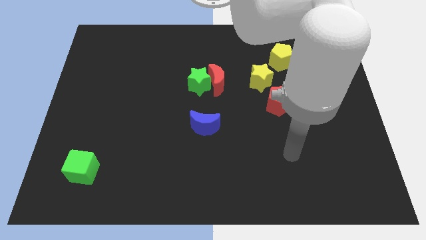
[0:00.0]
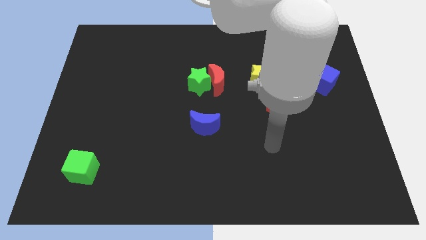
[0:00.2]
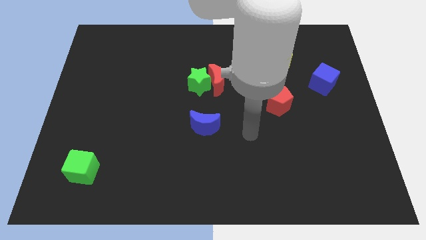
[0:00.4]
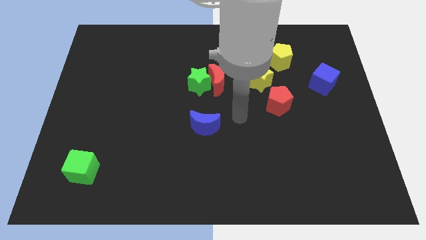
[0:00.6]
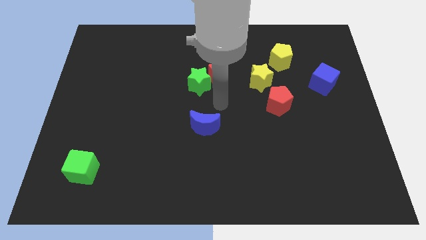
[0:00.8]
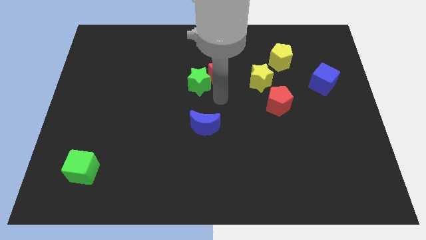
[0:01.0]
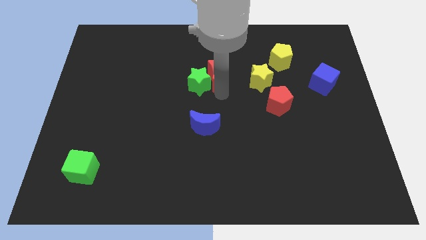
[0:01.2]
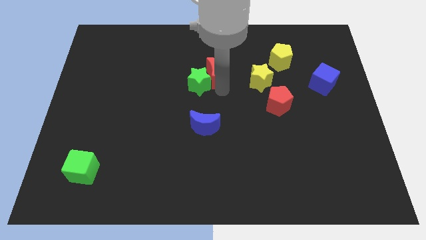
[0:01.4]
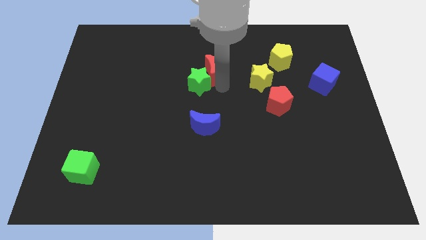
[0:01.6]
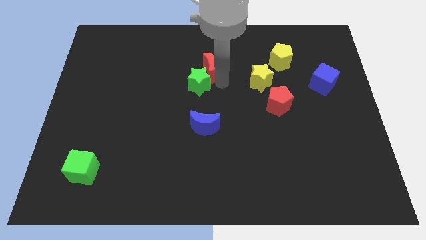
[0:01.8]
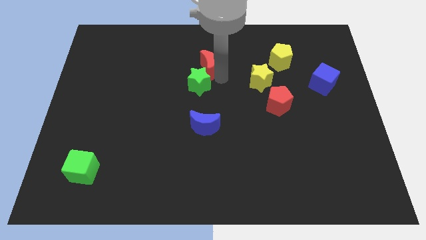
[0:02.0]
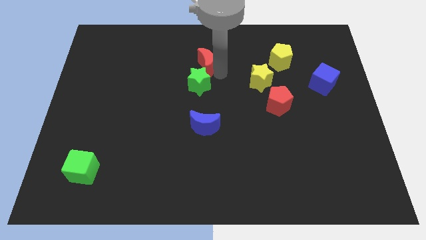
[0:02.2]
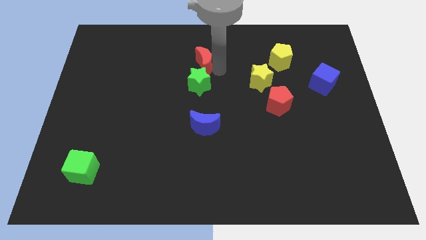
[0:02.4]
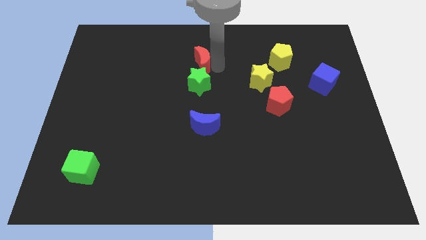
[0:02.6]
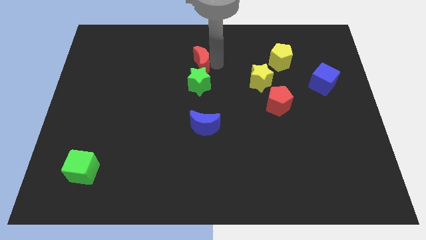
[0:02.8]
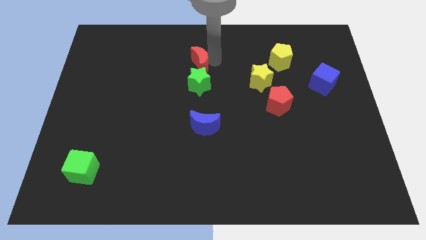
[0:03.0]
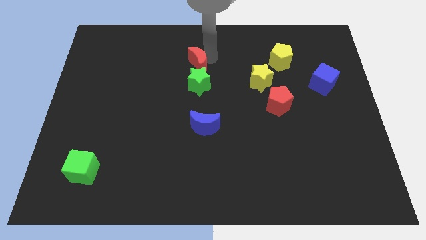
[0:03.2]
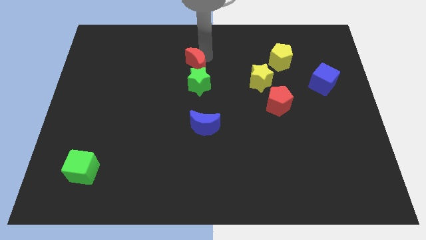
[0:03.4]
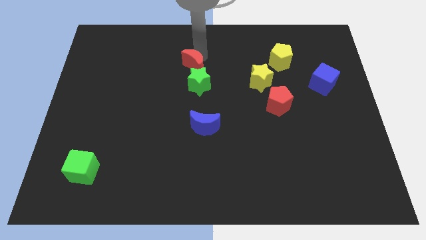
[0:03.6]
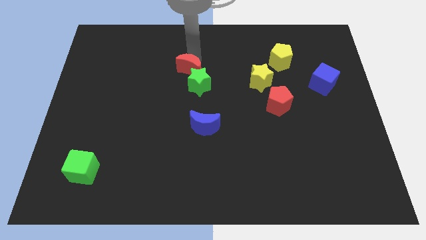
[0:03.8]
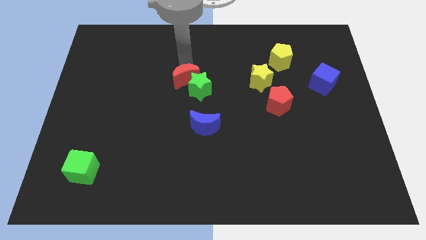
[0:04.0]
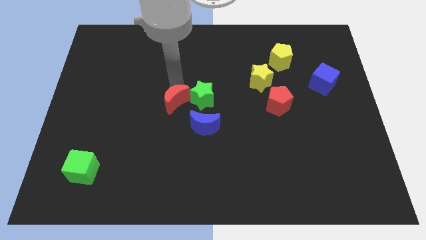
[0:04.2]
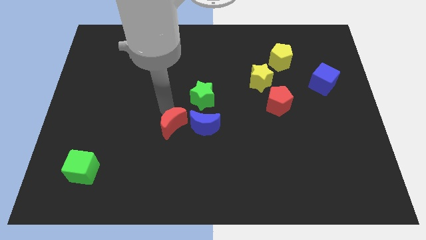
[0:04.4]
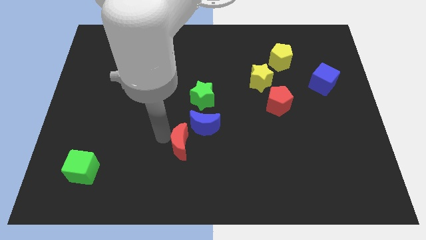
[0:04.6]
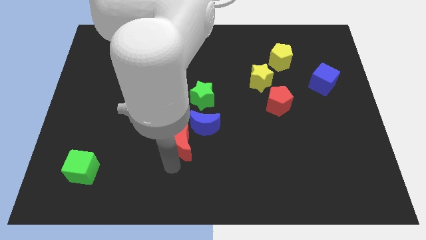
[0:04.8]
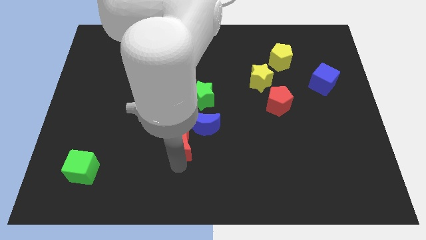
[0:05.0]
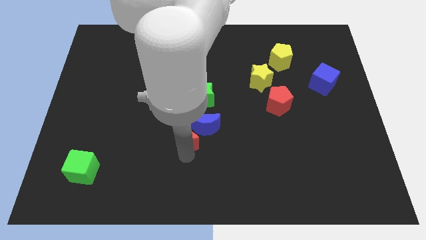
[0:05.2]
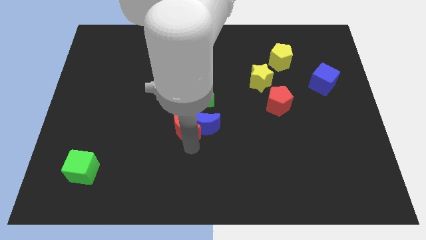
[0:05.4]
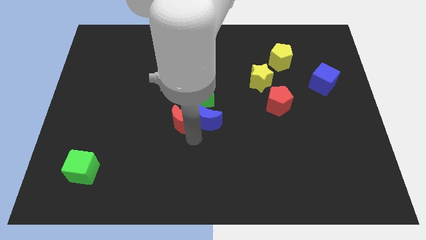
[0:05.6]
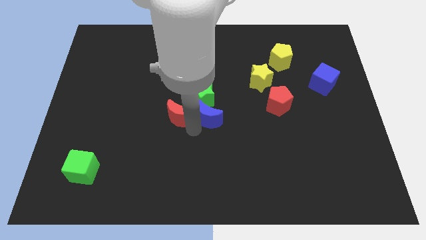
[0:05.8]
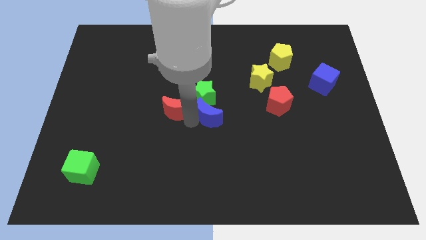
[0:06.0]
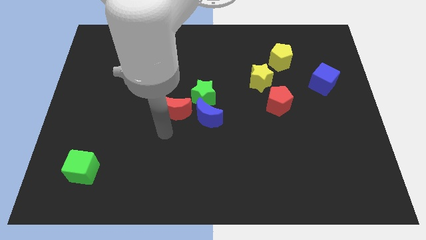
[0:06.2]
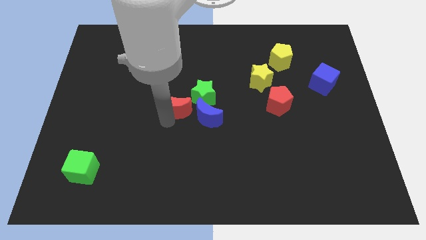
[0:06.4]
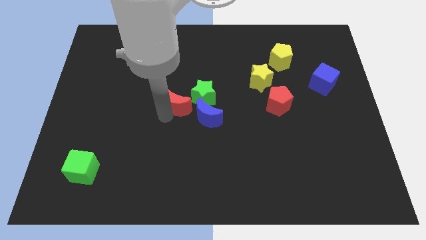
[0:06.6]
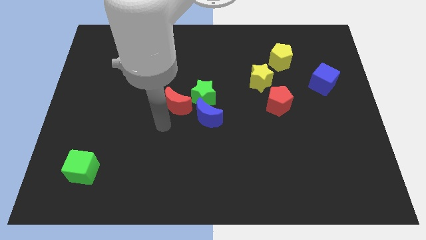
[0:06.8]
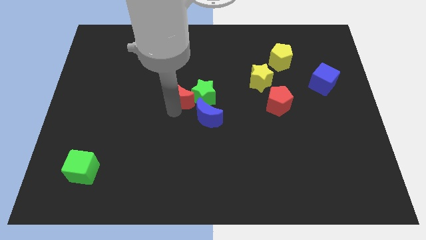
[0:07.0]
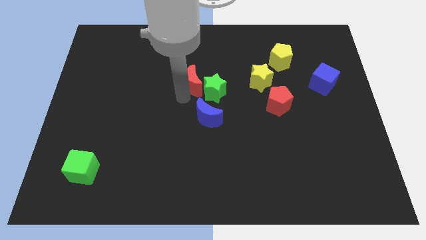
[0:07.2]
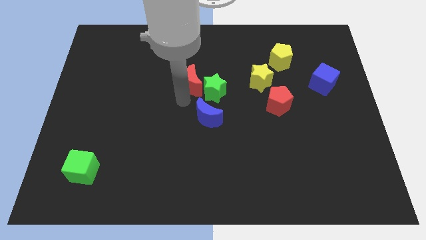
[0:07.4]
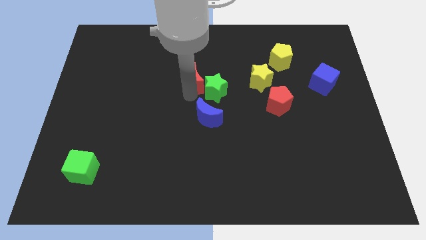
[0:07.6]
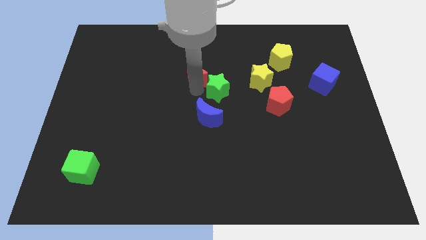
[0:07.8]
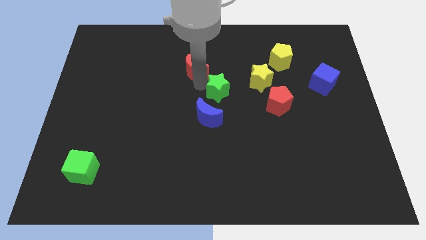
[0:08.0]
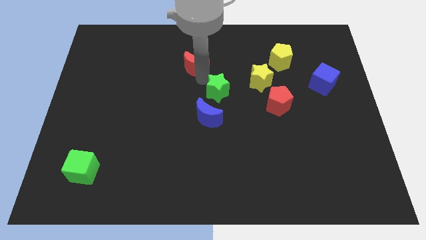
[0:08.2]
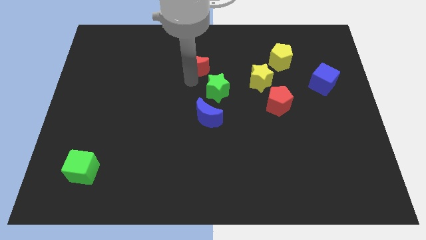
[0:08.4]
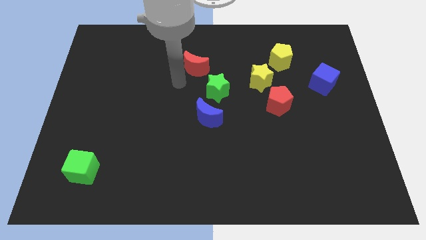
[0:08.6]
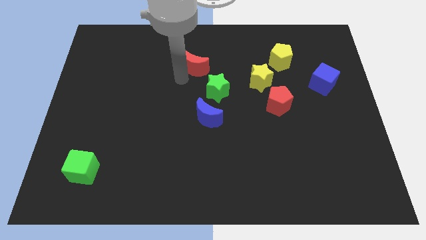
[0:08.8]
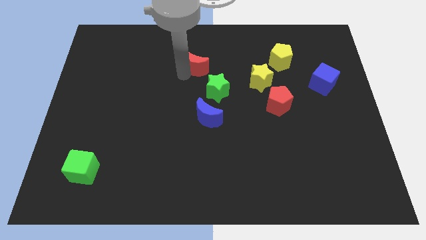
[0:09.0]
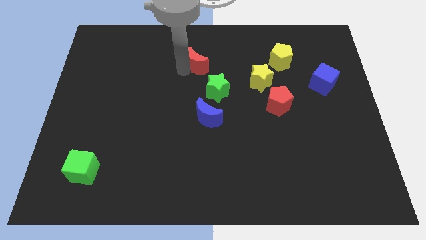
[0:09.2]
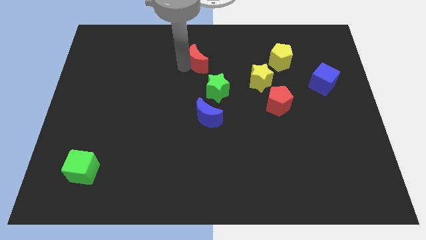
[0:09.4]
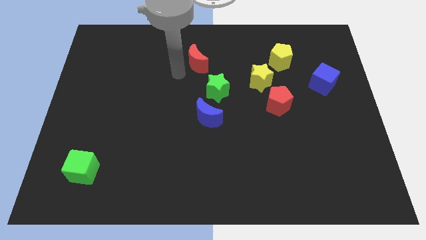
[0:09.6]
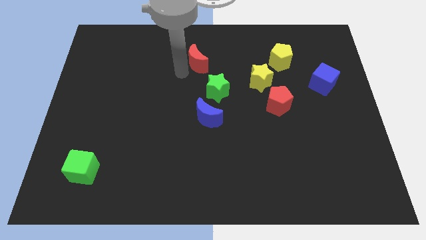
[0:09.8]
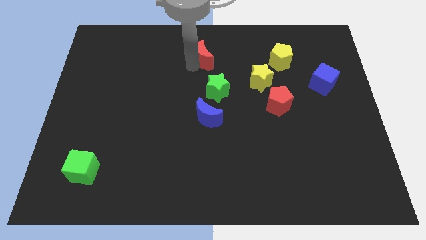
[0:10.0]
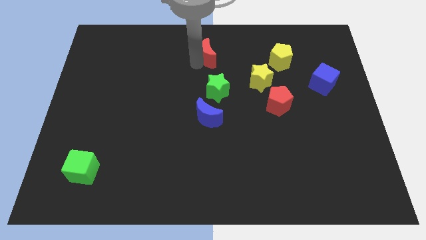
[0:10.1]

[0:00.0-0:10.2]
move the red moon to the top side
